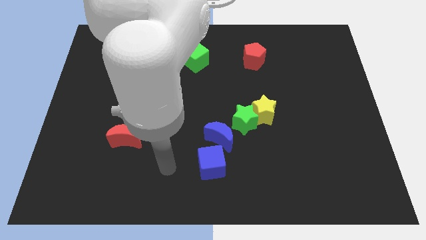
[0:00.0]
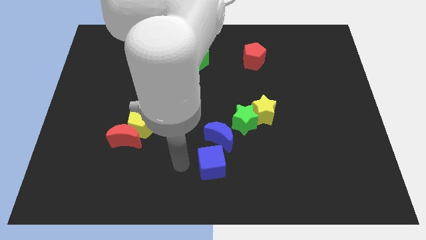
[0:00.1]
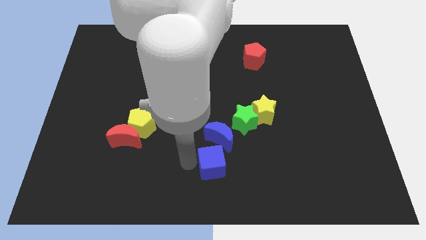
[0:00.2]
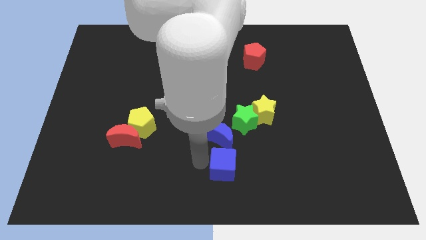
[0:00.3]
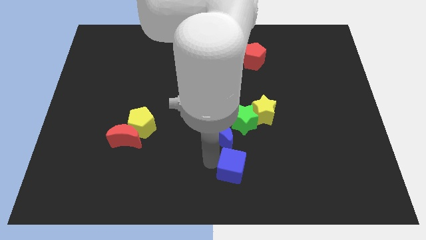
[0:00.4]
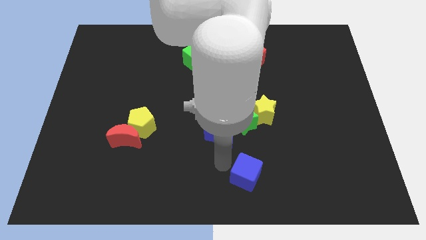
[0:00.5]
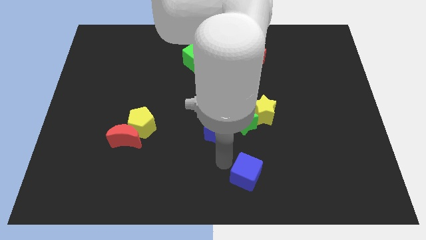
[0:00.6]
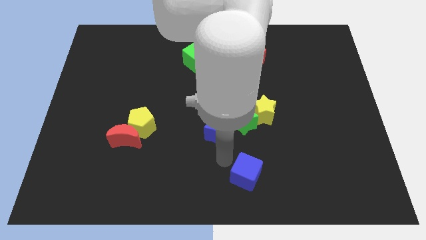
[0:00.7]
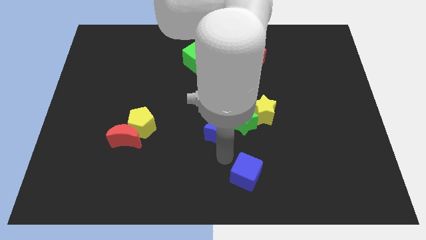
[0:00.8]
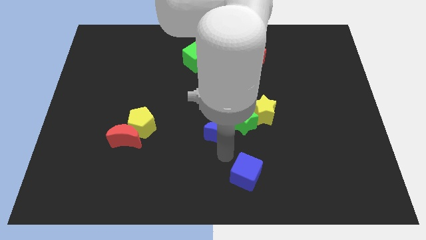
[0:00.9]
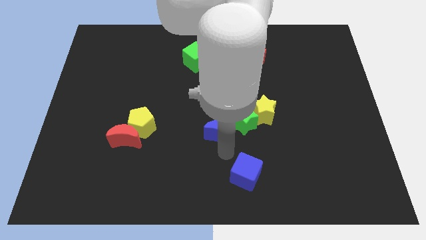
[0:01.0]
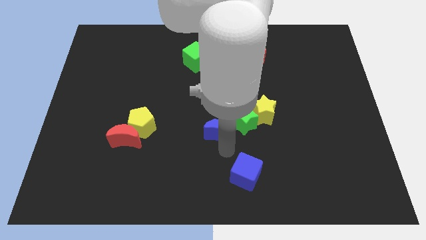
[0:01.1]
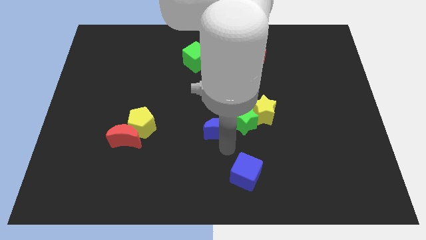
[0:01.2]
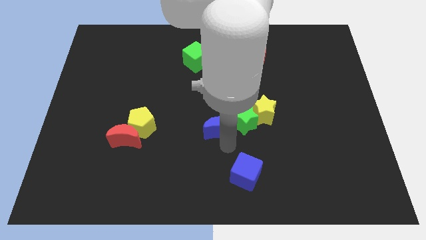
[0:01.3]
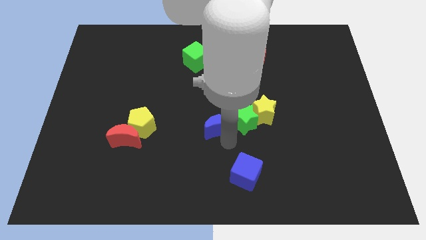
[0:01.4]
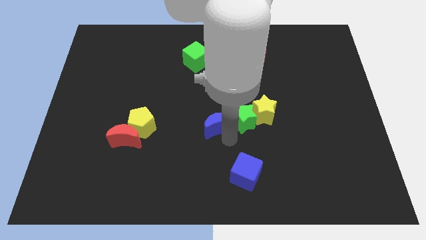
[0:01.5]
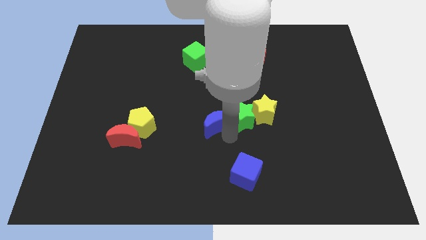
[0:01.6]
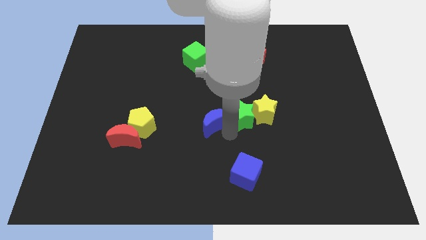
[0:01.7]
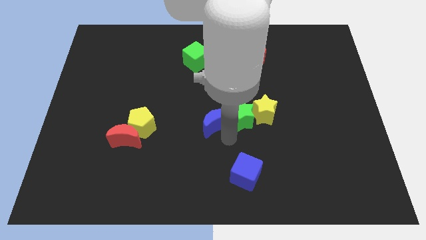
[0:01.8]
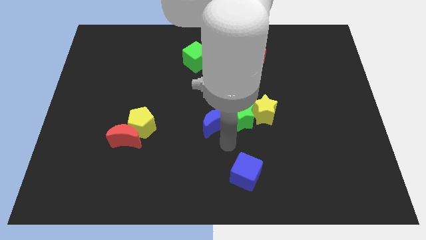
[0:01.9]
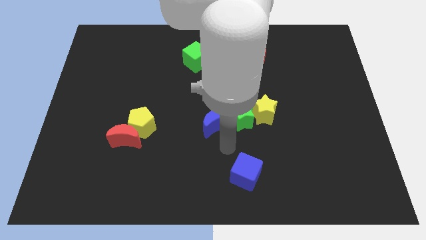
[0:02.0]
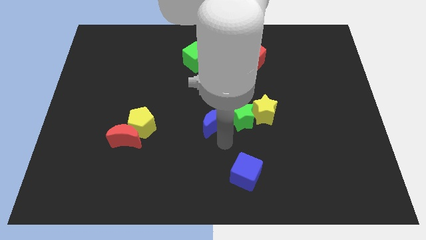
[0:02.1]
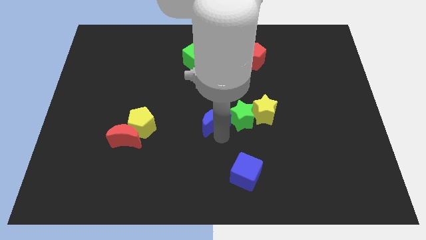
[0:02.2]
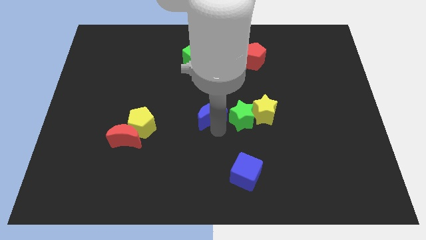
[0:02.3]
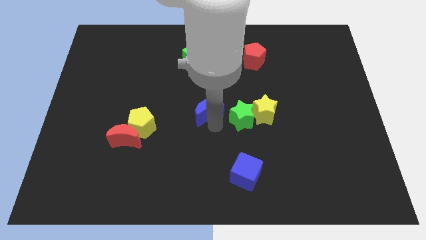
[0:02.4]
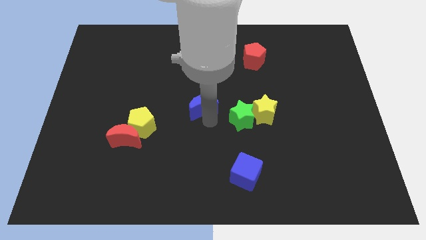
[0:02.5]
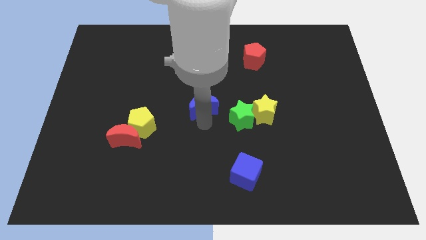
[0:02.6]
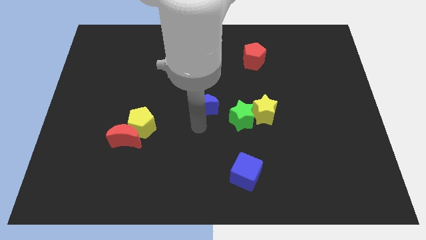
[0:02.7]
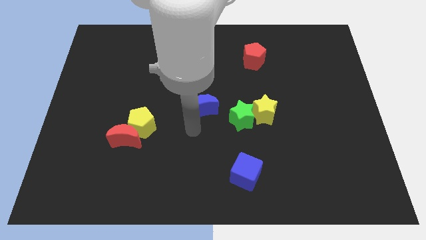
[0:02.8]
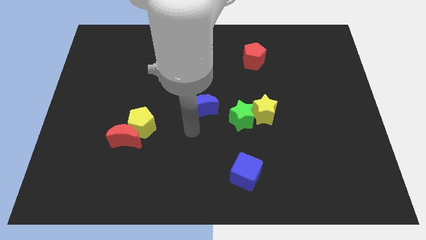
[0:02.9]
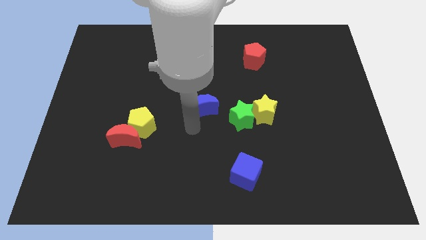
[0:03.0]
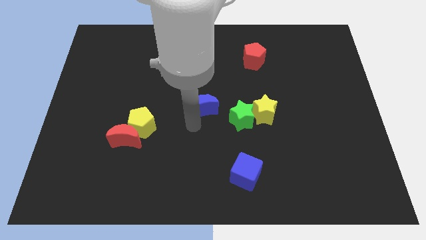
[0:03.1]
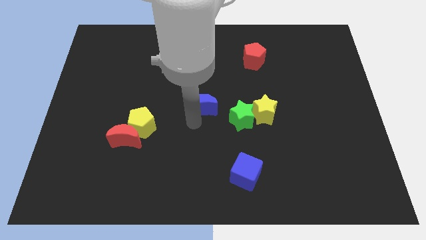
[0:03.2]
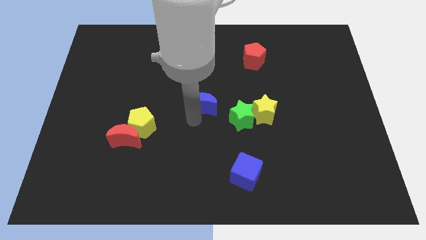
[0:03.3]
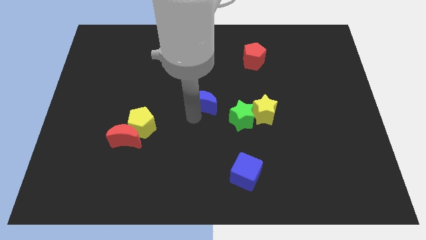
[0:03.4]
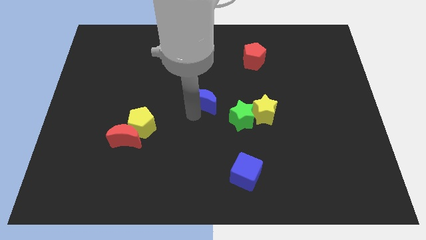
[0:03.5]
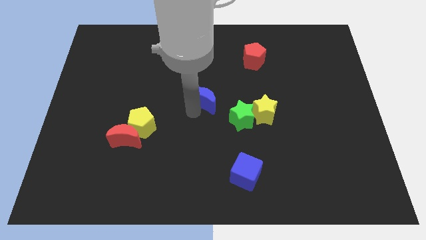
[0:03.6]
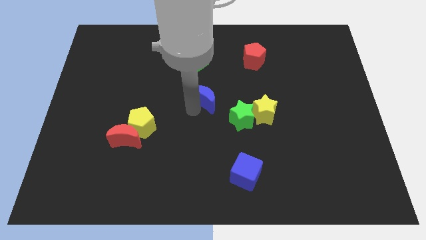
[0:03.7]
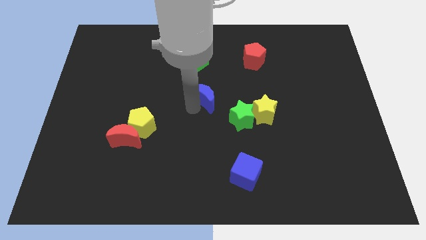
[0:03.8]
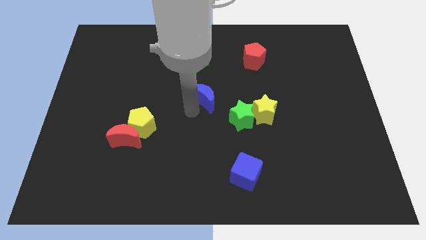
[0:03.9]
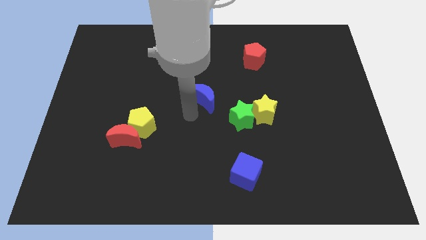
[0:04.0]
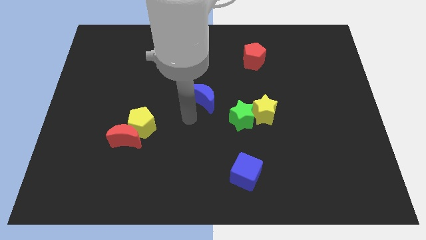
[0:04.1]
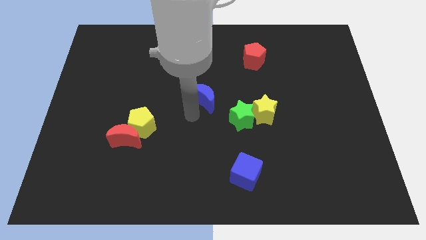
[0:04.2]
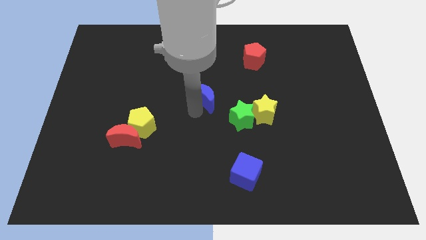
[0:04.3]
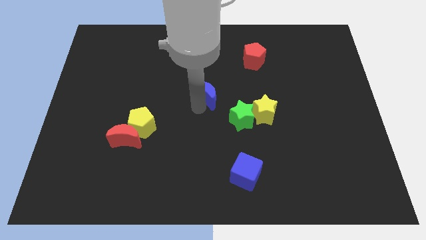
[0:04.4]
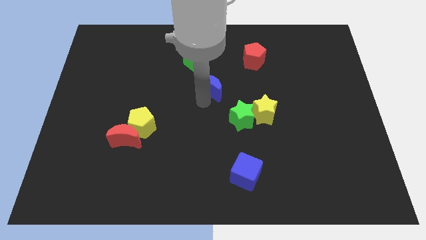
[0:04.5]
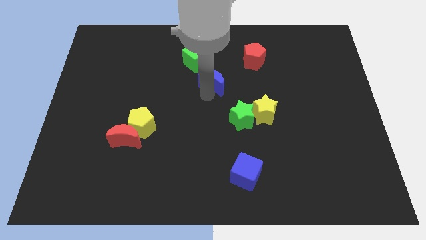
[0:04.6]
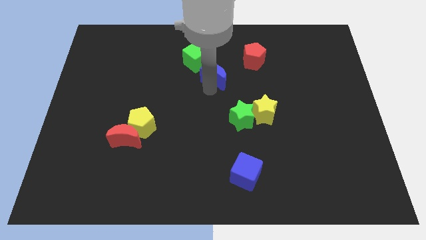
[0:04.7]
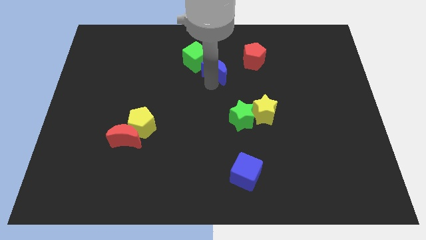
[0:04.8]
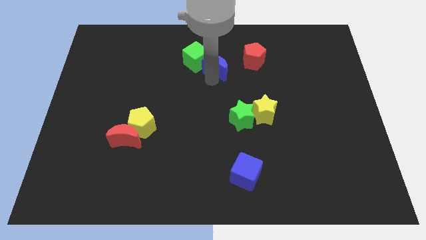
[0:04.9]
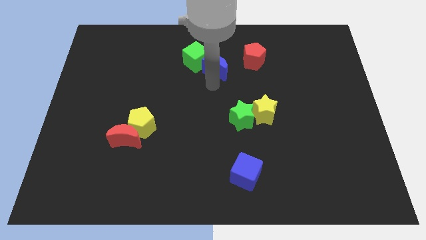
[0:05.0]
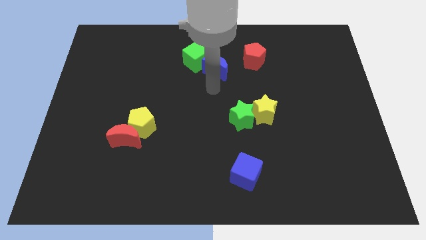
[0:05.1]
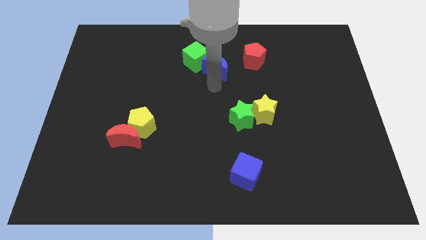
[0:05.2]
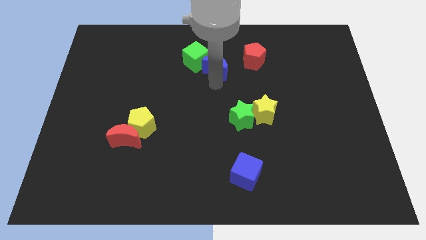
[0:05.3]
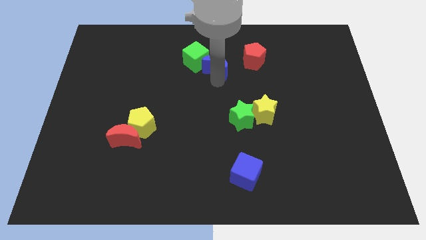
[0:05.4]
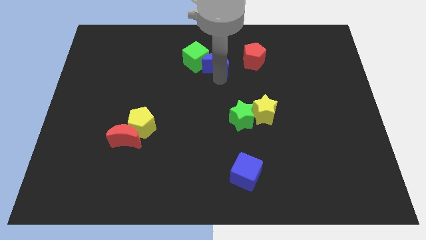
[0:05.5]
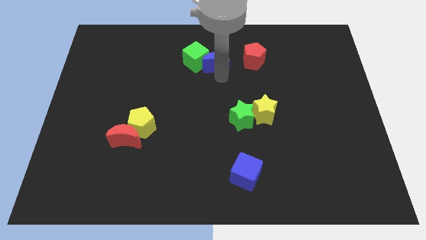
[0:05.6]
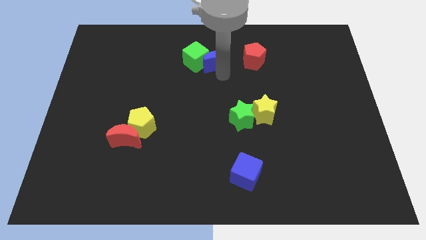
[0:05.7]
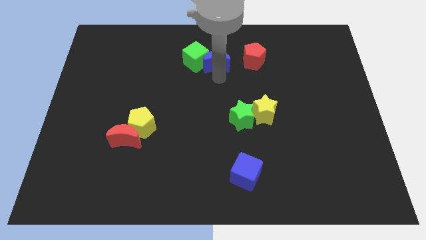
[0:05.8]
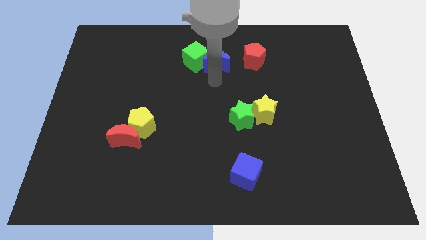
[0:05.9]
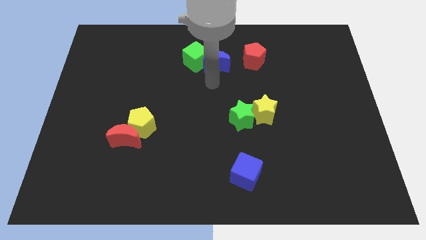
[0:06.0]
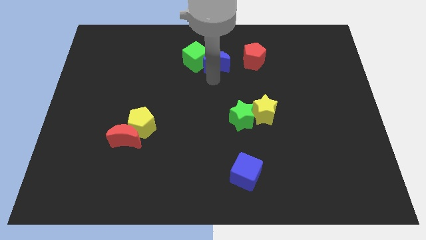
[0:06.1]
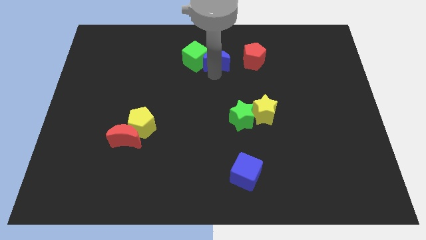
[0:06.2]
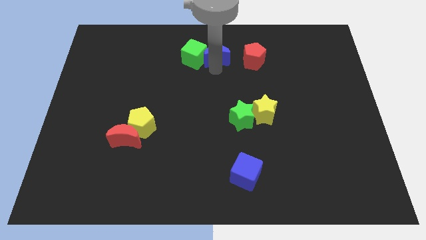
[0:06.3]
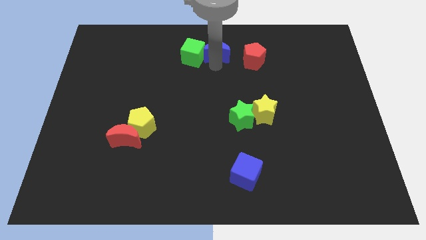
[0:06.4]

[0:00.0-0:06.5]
put the blue moon to the towards your base

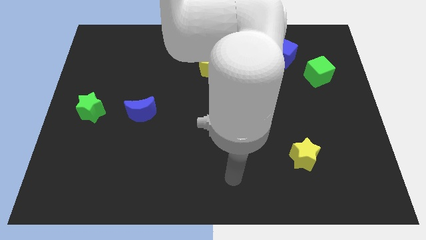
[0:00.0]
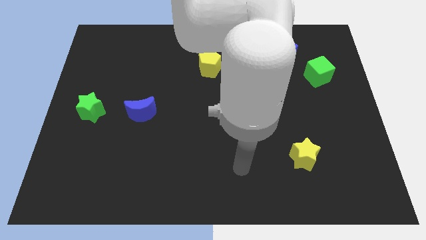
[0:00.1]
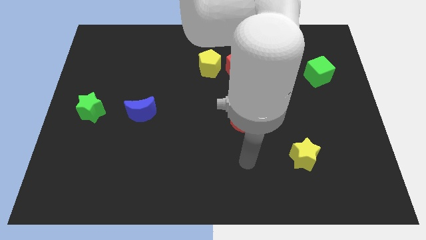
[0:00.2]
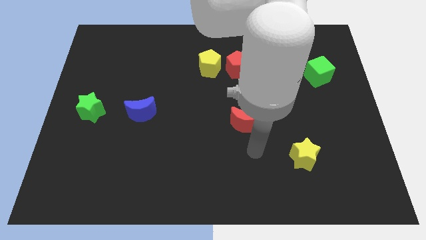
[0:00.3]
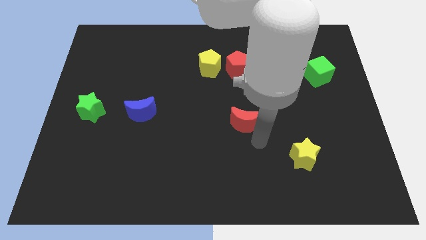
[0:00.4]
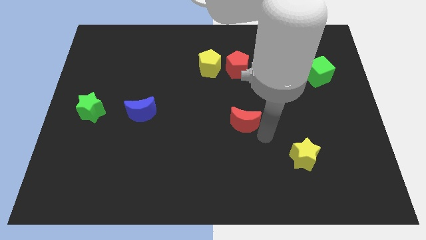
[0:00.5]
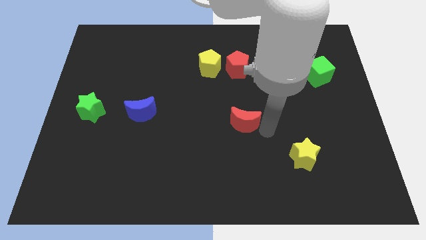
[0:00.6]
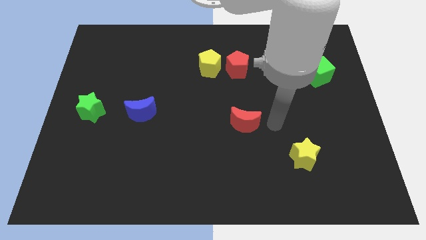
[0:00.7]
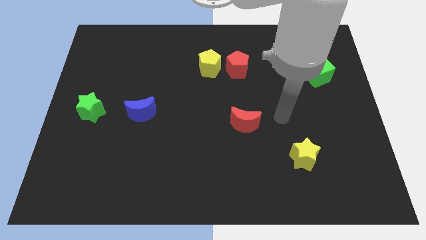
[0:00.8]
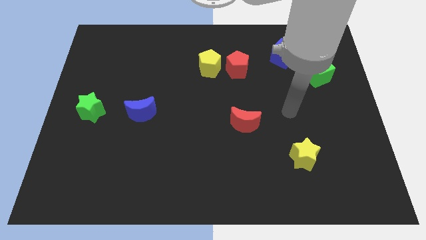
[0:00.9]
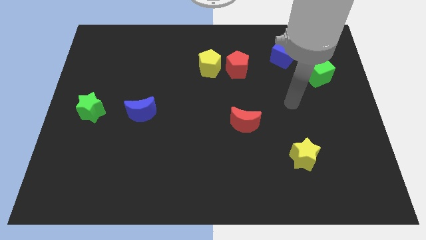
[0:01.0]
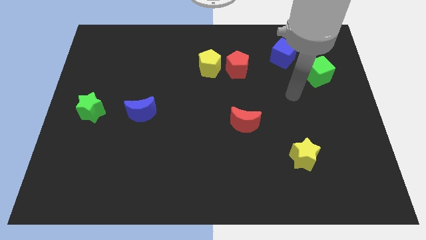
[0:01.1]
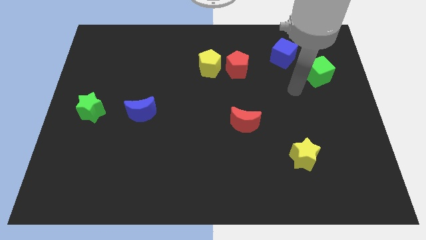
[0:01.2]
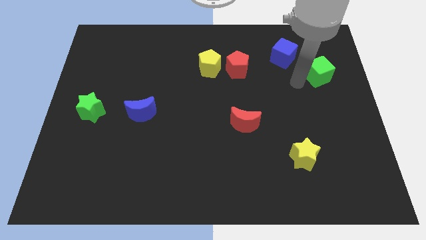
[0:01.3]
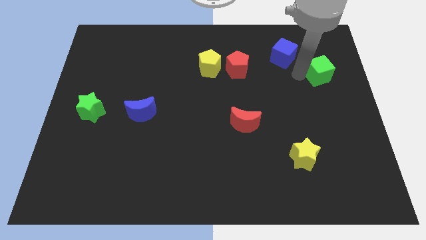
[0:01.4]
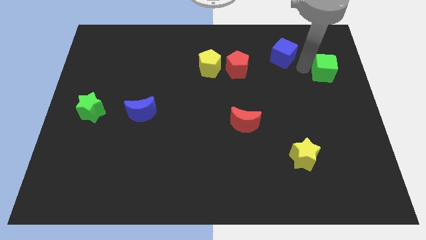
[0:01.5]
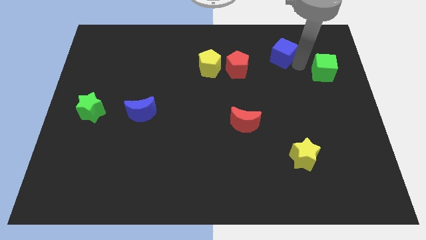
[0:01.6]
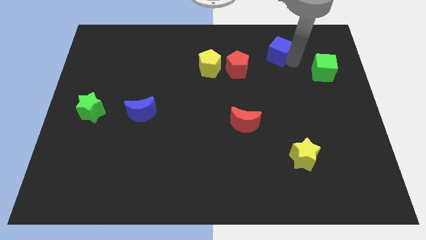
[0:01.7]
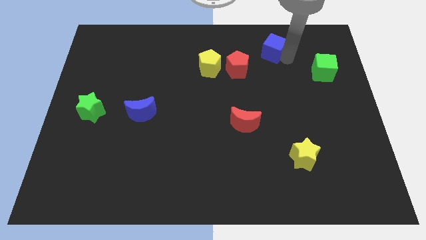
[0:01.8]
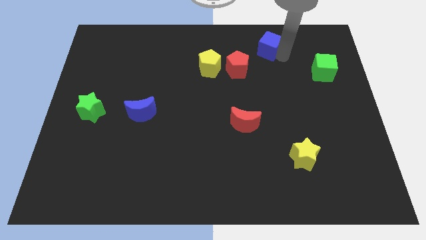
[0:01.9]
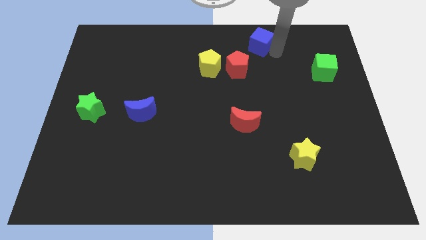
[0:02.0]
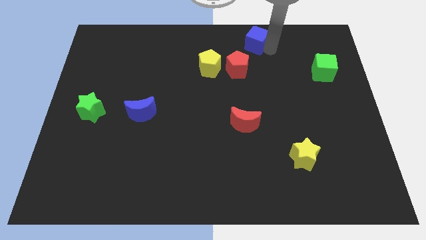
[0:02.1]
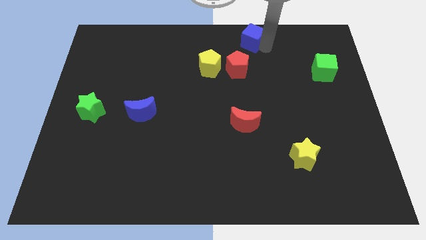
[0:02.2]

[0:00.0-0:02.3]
slide the blue cube to the top
